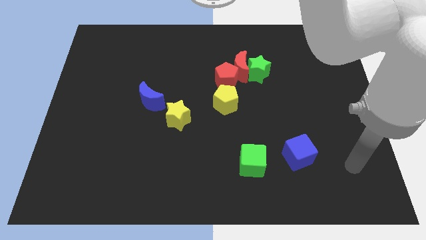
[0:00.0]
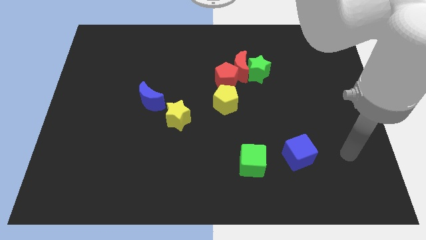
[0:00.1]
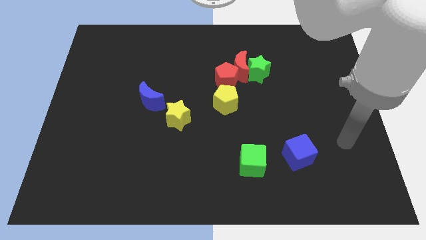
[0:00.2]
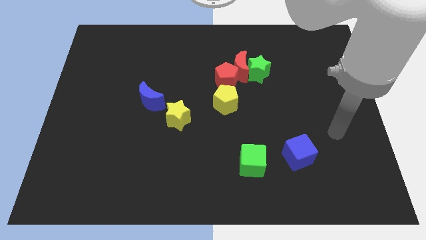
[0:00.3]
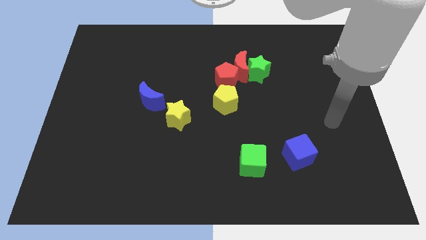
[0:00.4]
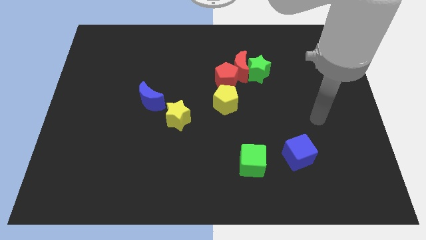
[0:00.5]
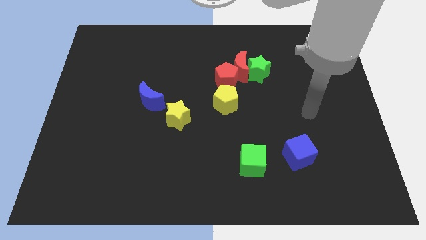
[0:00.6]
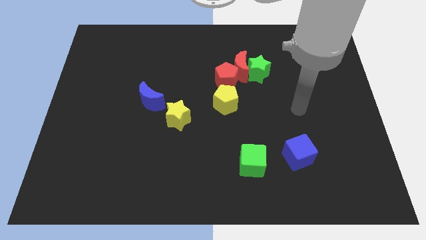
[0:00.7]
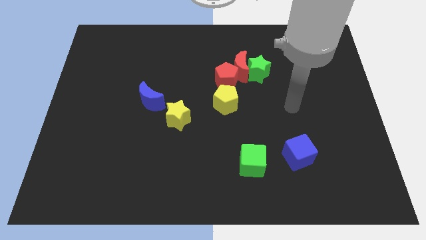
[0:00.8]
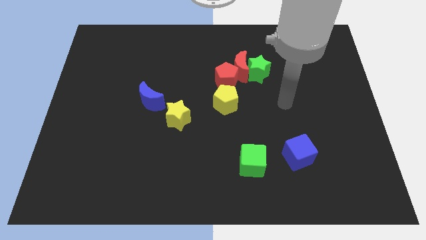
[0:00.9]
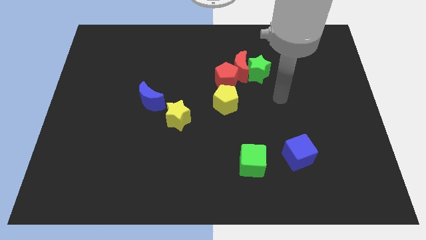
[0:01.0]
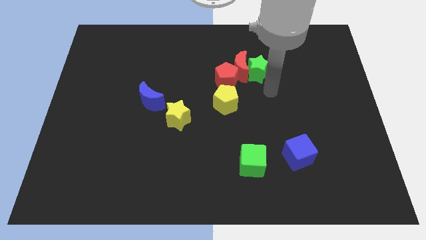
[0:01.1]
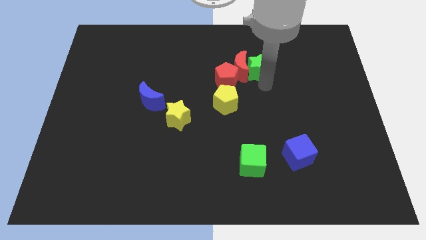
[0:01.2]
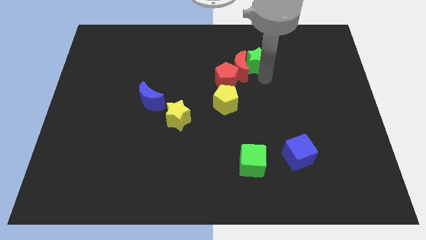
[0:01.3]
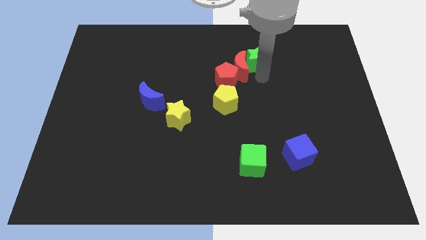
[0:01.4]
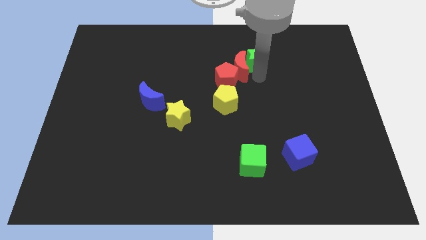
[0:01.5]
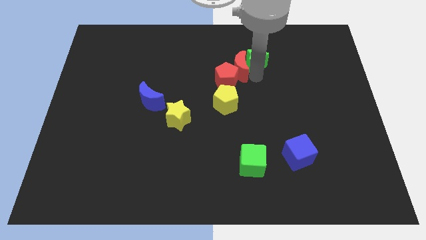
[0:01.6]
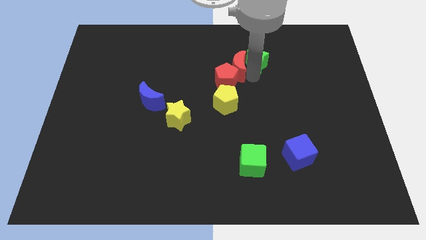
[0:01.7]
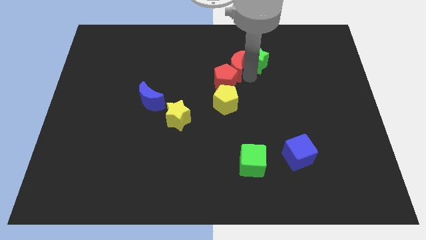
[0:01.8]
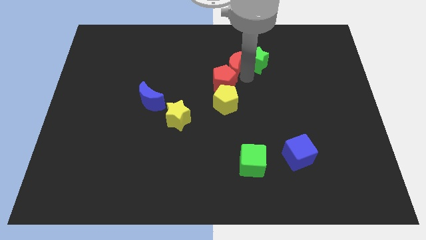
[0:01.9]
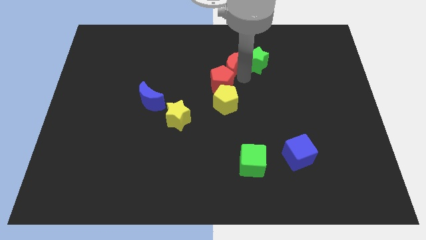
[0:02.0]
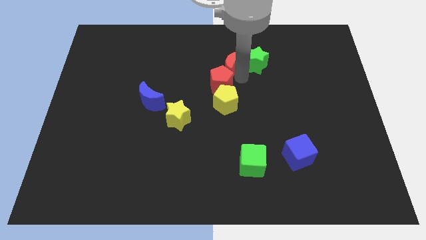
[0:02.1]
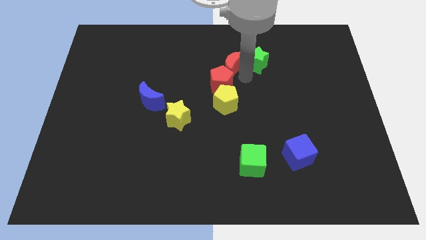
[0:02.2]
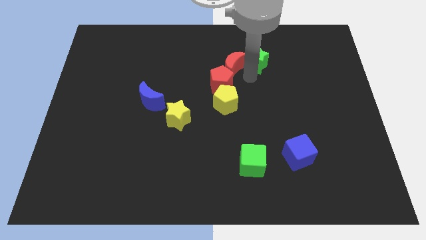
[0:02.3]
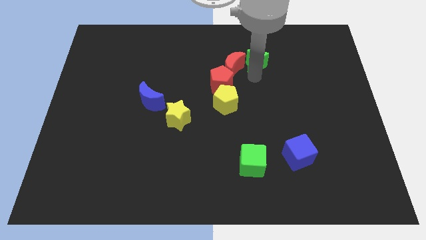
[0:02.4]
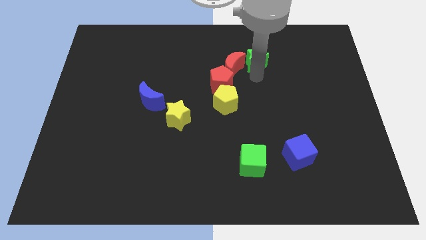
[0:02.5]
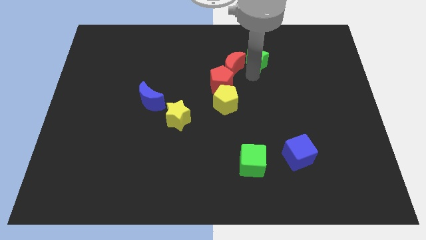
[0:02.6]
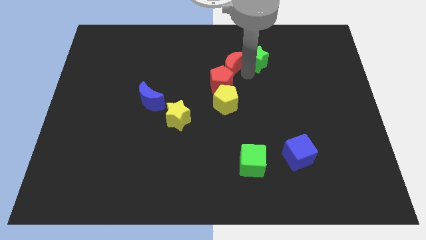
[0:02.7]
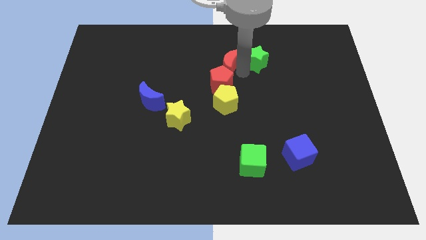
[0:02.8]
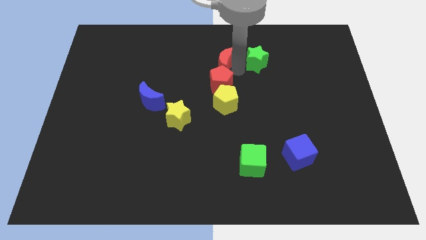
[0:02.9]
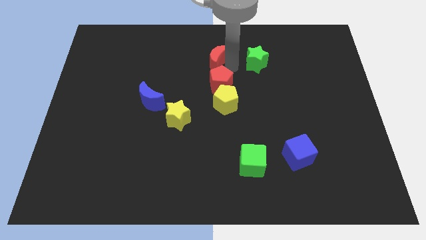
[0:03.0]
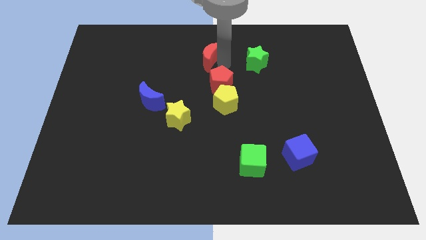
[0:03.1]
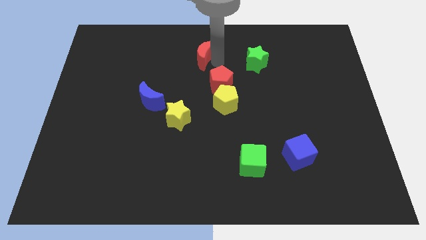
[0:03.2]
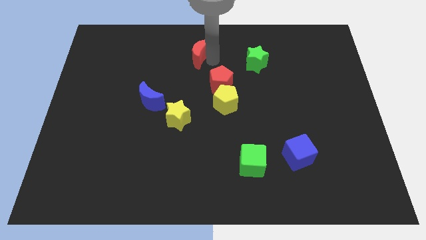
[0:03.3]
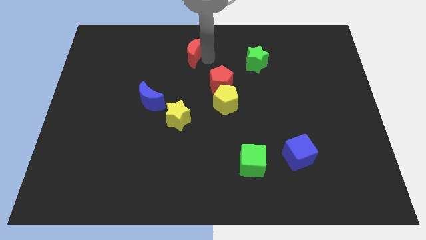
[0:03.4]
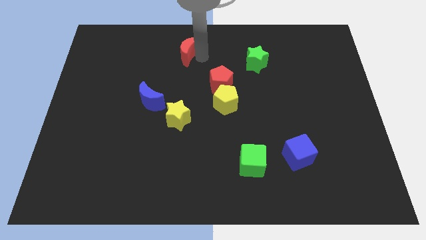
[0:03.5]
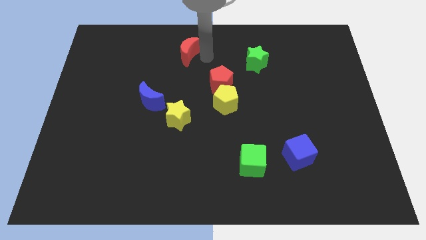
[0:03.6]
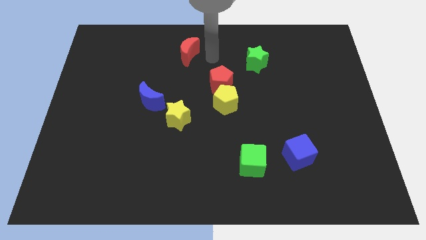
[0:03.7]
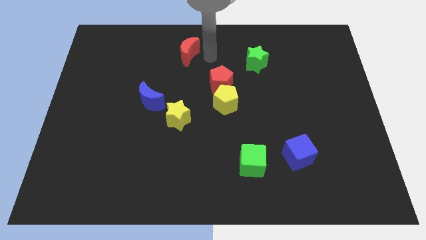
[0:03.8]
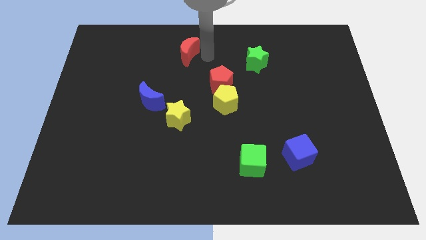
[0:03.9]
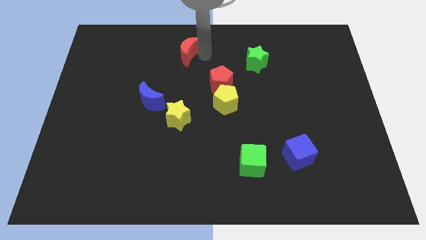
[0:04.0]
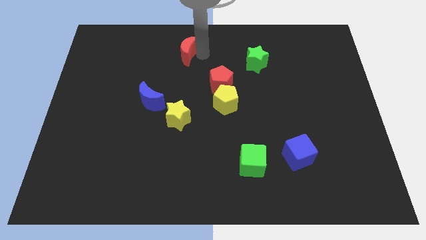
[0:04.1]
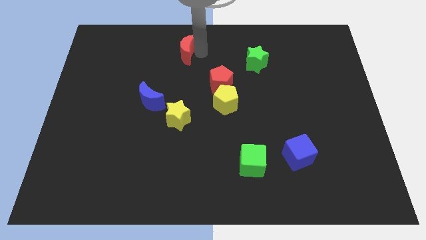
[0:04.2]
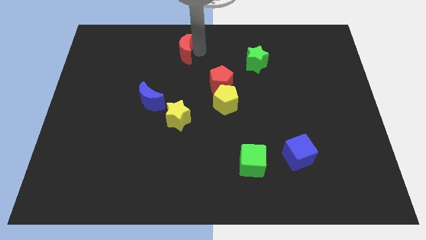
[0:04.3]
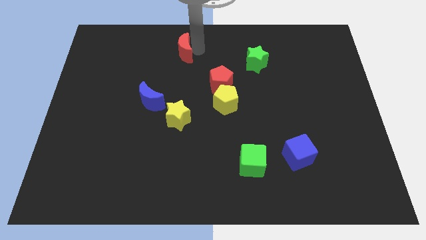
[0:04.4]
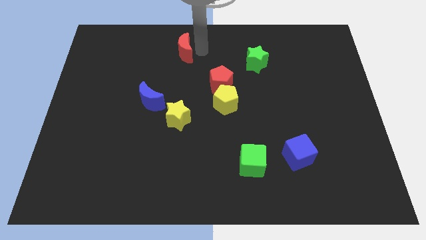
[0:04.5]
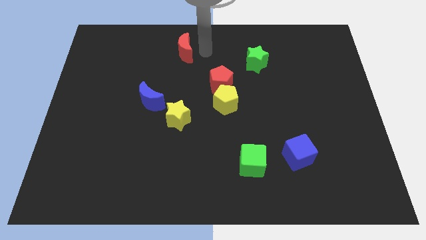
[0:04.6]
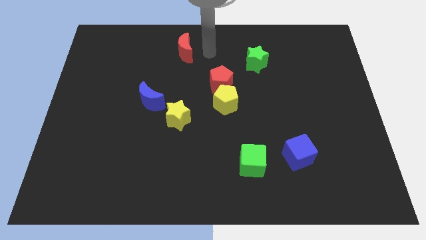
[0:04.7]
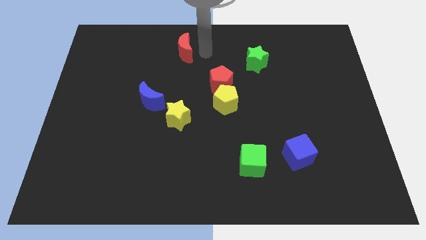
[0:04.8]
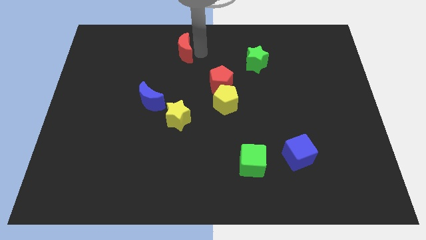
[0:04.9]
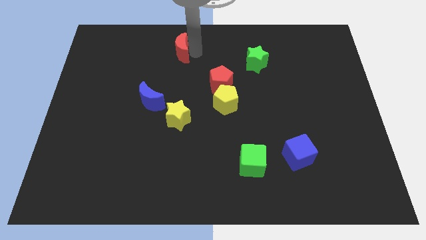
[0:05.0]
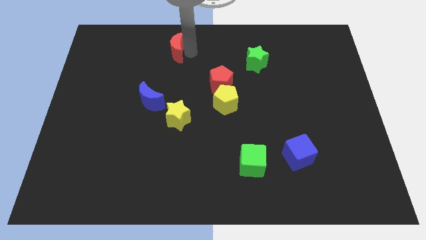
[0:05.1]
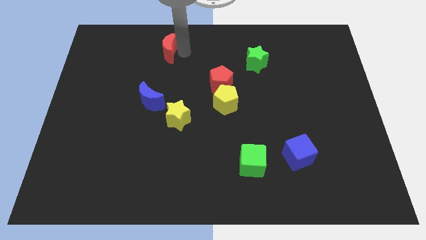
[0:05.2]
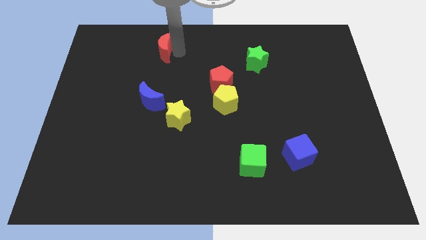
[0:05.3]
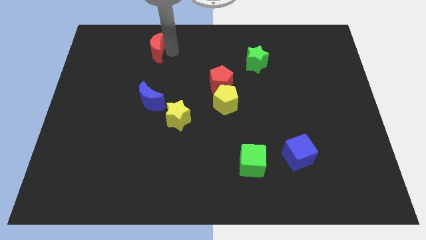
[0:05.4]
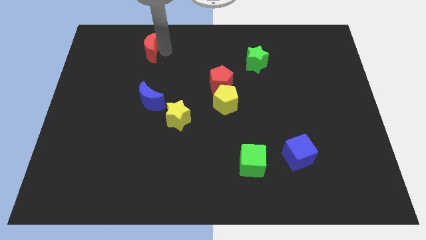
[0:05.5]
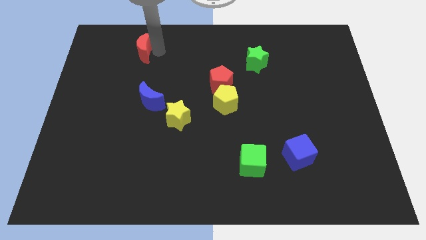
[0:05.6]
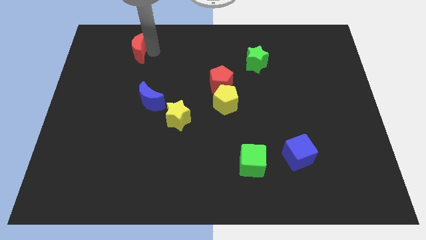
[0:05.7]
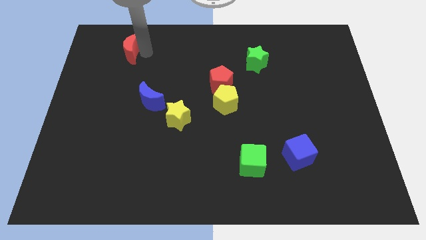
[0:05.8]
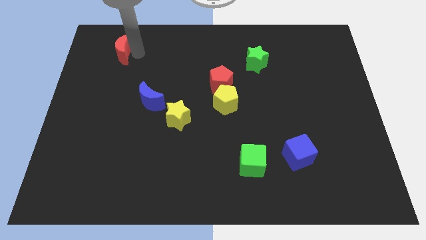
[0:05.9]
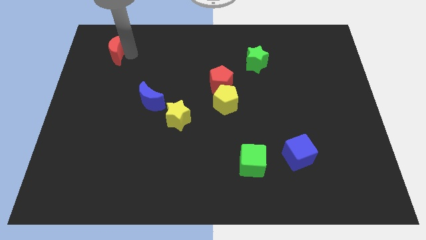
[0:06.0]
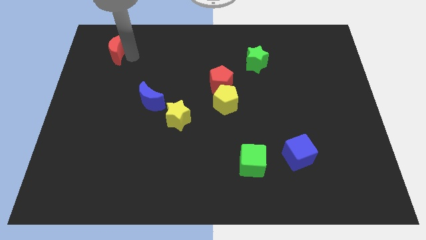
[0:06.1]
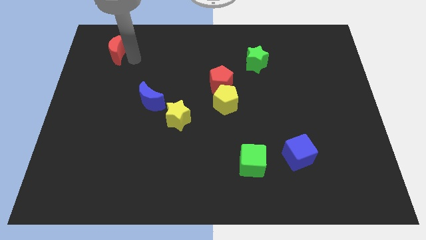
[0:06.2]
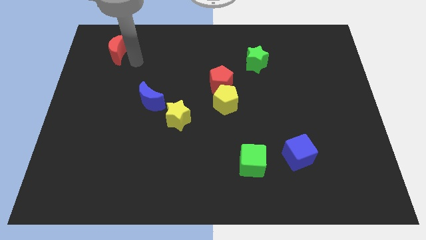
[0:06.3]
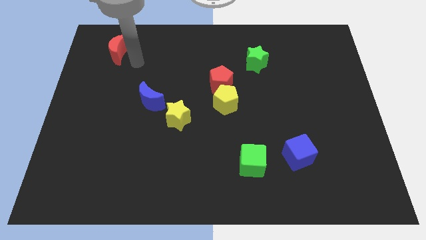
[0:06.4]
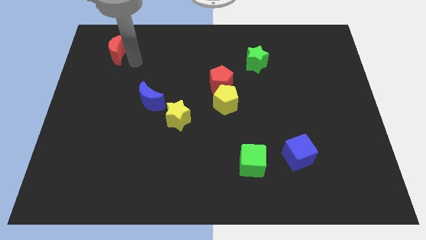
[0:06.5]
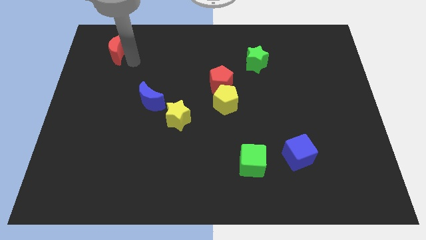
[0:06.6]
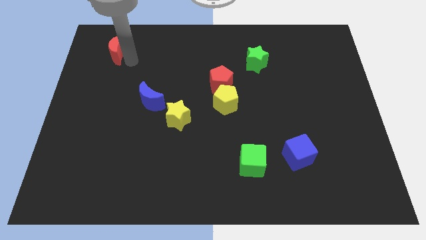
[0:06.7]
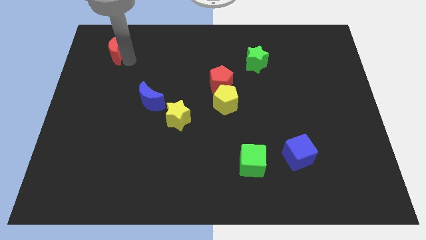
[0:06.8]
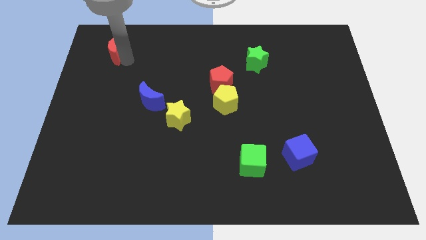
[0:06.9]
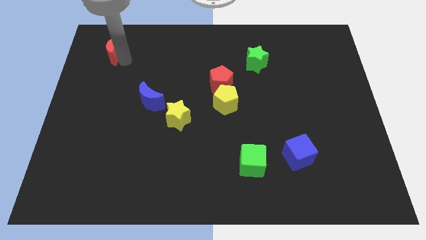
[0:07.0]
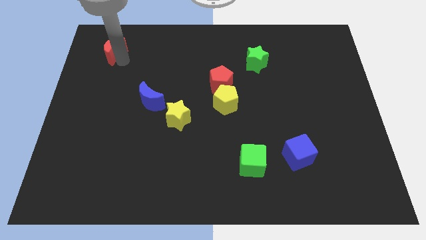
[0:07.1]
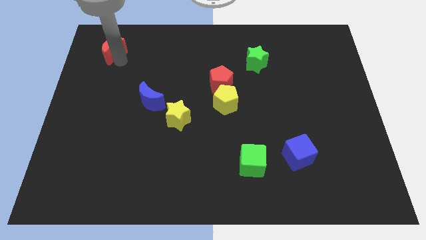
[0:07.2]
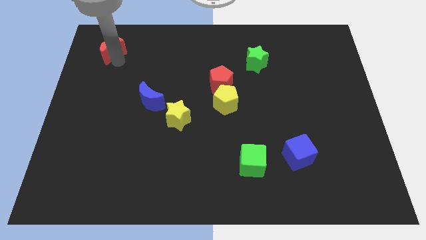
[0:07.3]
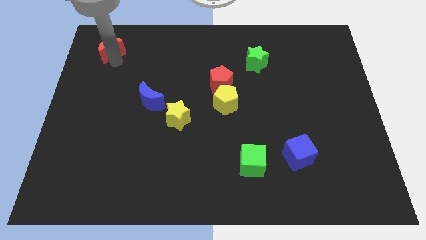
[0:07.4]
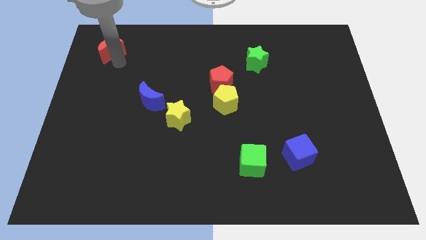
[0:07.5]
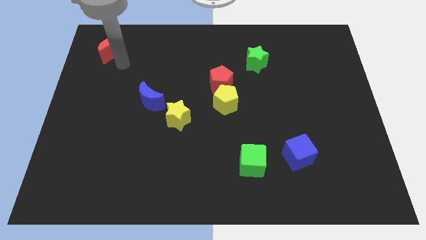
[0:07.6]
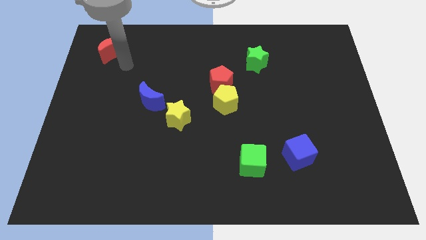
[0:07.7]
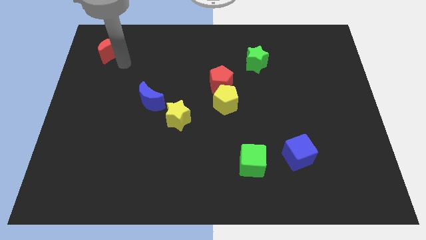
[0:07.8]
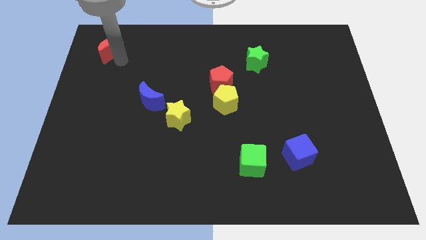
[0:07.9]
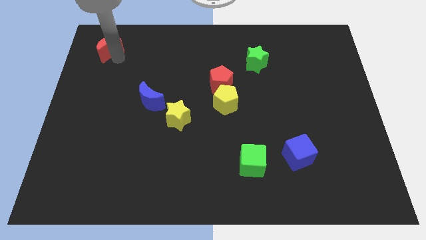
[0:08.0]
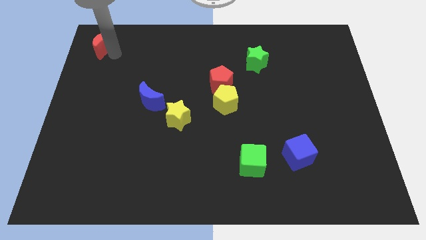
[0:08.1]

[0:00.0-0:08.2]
put the red moon to the top left of the board
